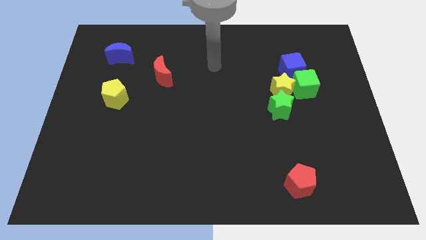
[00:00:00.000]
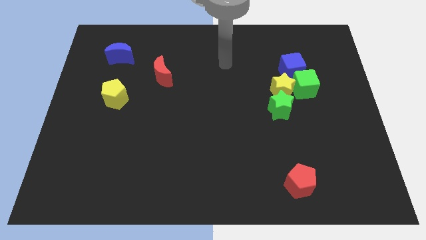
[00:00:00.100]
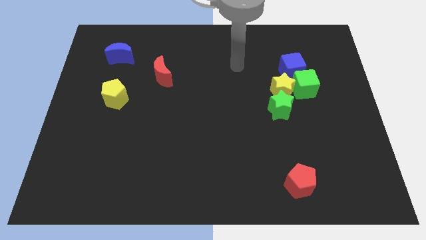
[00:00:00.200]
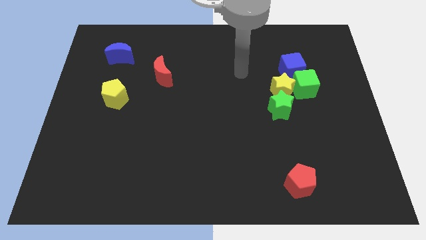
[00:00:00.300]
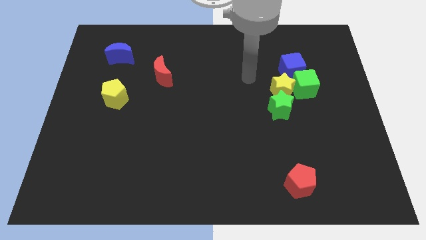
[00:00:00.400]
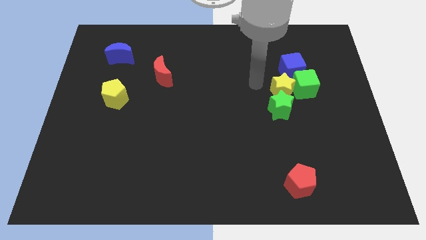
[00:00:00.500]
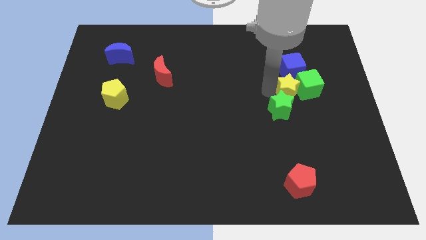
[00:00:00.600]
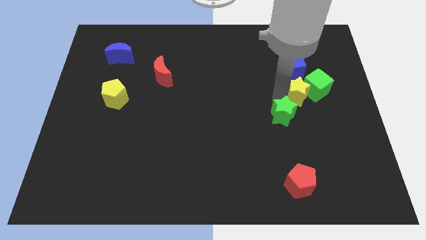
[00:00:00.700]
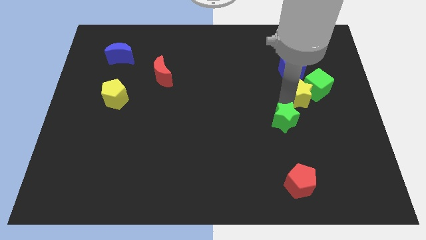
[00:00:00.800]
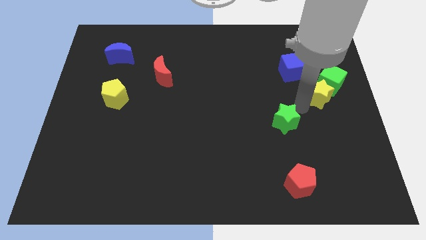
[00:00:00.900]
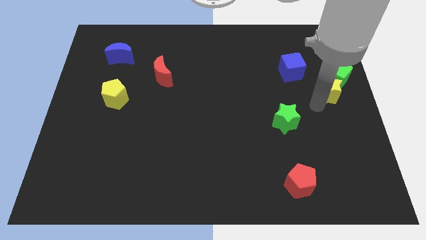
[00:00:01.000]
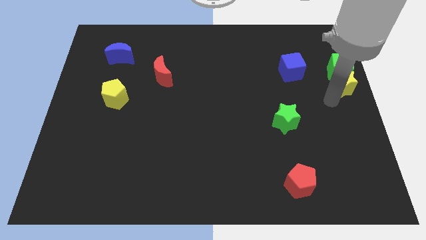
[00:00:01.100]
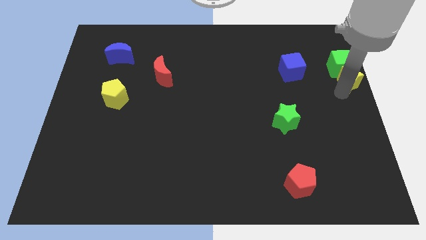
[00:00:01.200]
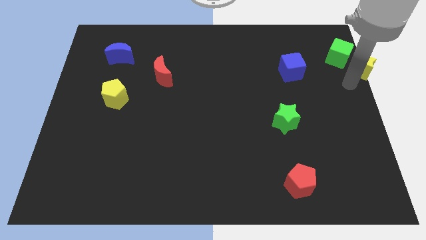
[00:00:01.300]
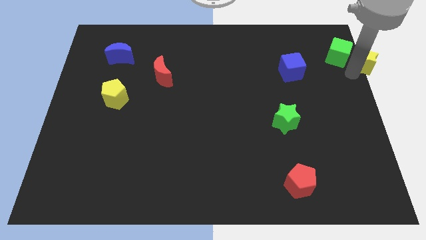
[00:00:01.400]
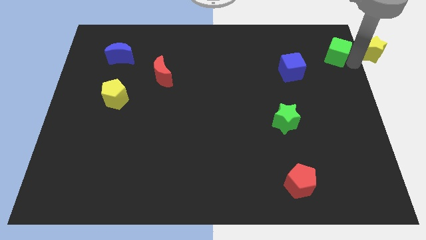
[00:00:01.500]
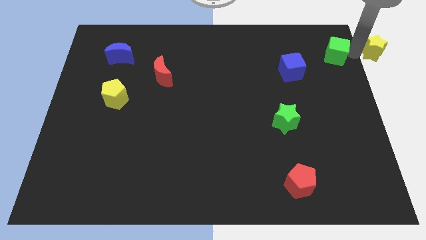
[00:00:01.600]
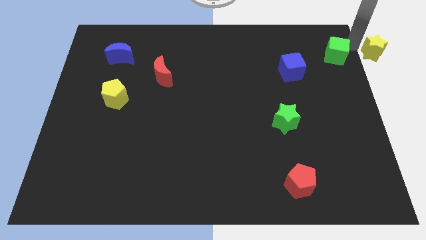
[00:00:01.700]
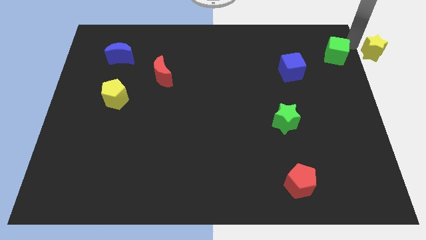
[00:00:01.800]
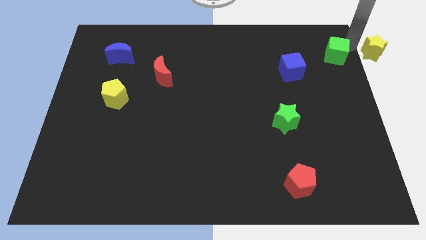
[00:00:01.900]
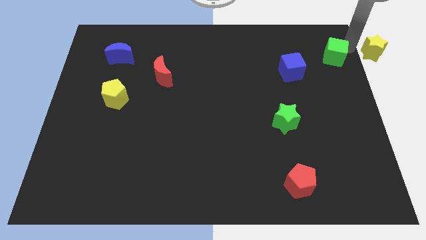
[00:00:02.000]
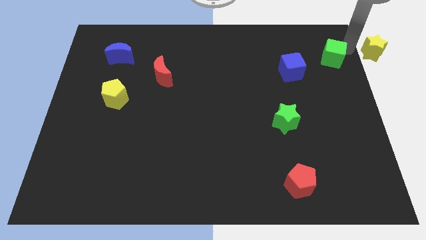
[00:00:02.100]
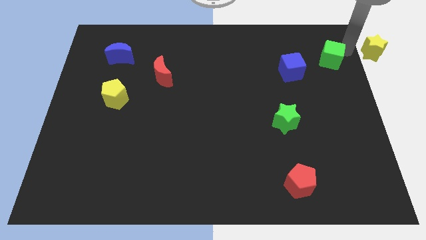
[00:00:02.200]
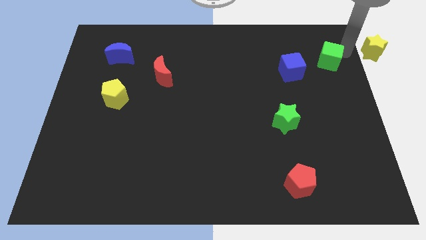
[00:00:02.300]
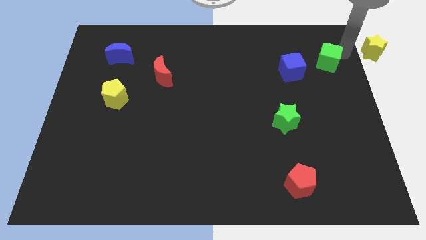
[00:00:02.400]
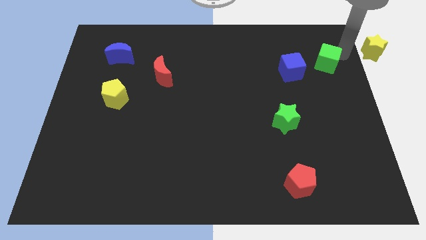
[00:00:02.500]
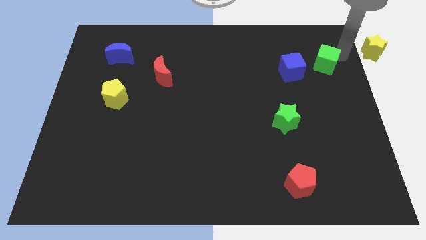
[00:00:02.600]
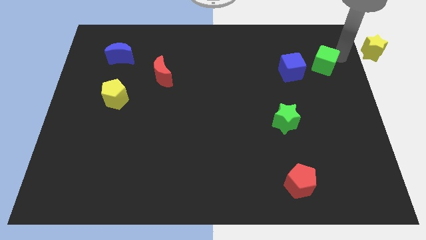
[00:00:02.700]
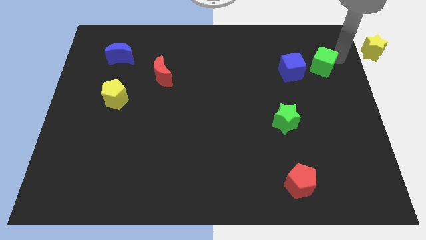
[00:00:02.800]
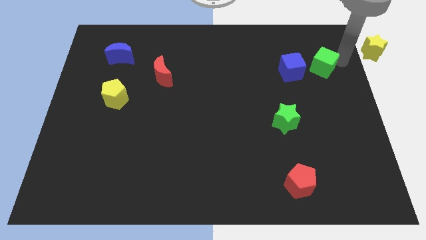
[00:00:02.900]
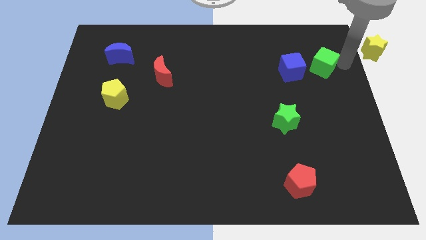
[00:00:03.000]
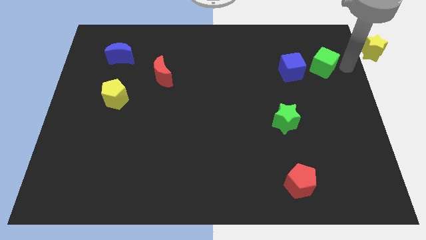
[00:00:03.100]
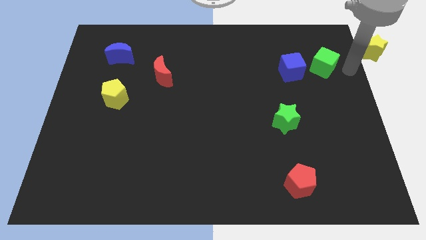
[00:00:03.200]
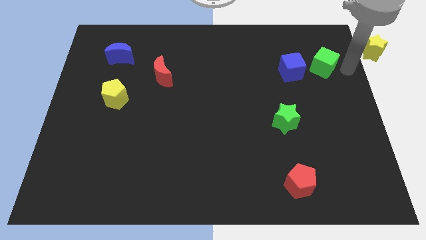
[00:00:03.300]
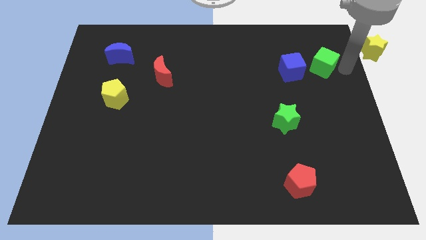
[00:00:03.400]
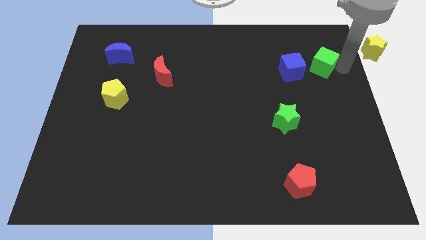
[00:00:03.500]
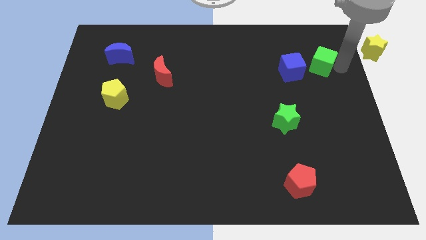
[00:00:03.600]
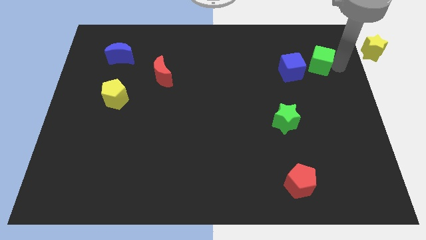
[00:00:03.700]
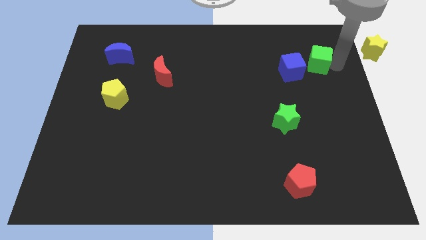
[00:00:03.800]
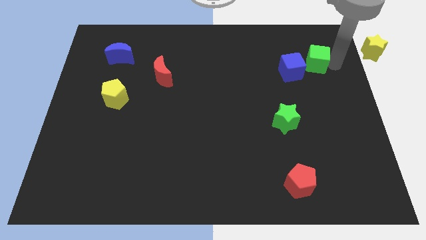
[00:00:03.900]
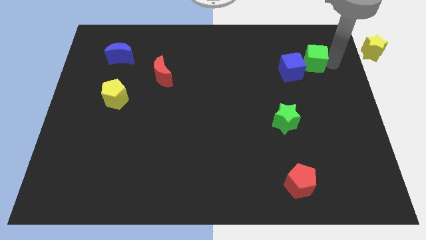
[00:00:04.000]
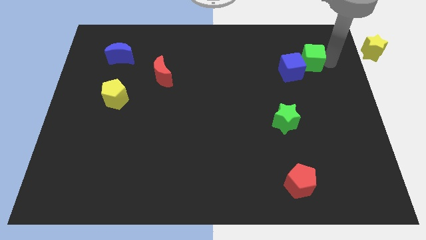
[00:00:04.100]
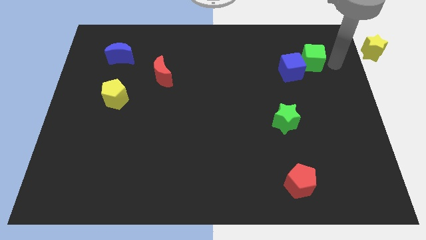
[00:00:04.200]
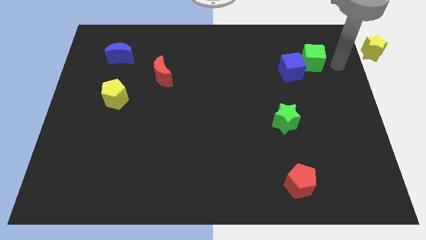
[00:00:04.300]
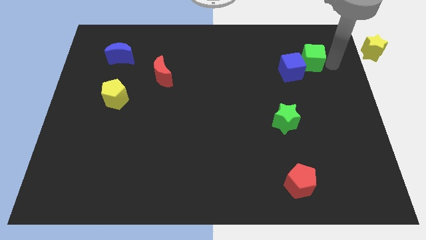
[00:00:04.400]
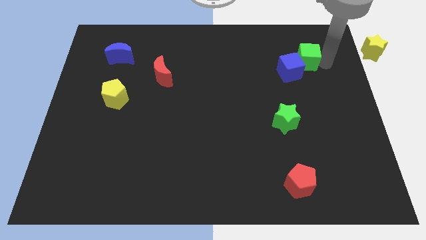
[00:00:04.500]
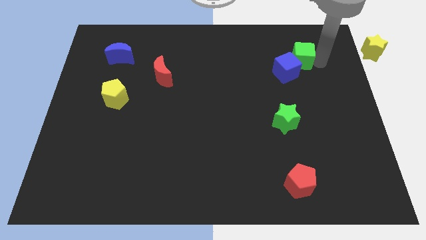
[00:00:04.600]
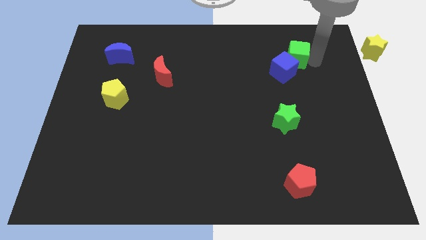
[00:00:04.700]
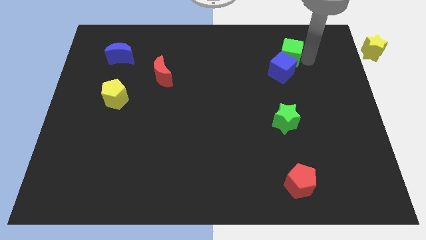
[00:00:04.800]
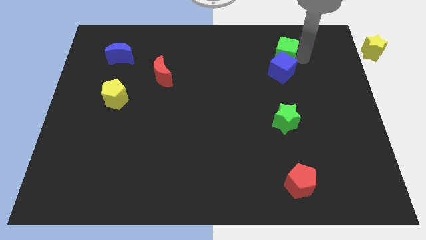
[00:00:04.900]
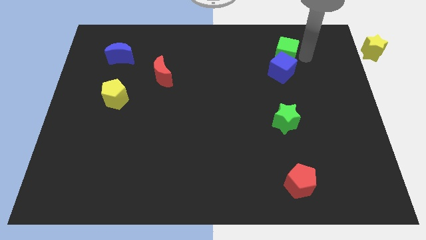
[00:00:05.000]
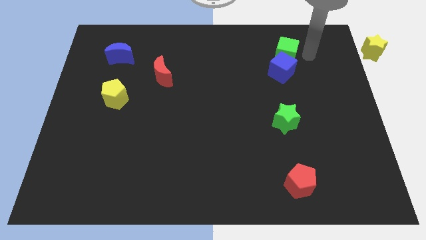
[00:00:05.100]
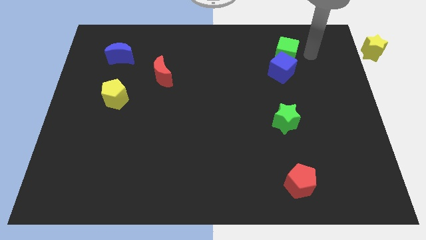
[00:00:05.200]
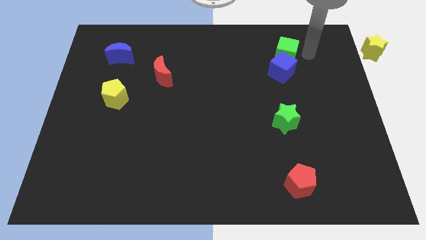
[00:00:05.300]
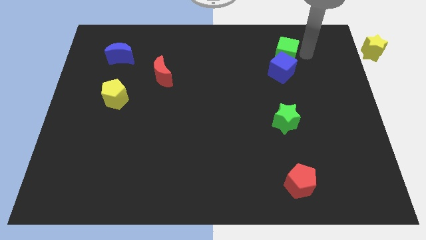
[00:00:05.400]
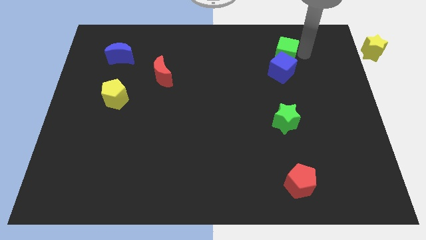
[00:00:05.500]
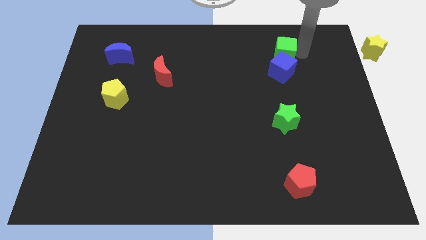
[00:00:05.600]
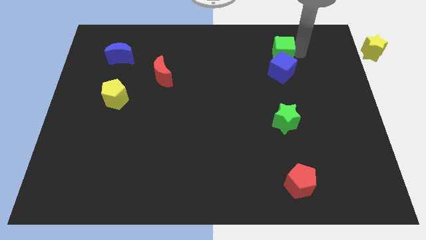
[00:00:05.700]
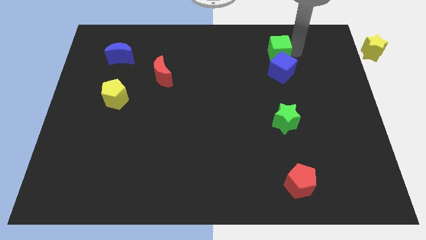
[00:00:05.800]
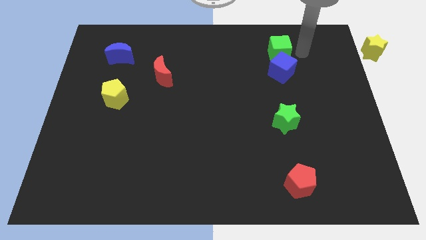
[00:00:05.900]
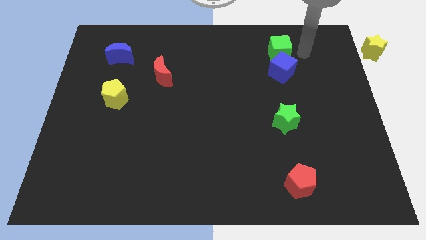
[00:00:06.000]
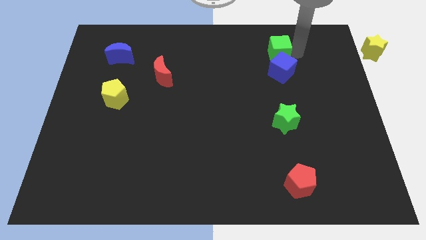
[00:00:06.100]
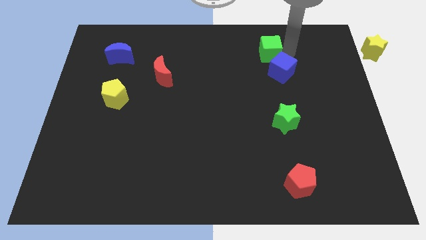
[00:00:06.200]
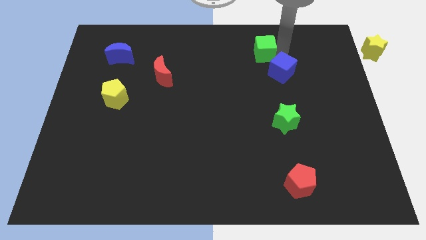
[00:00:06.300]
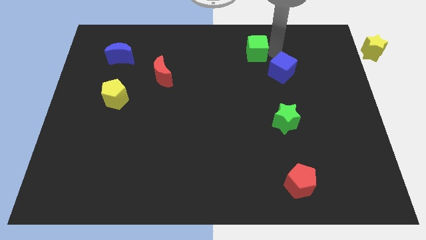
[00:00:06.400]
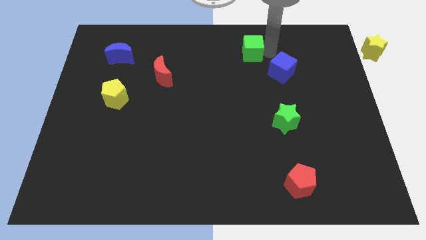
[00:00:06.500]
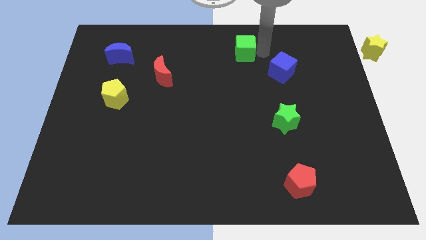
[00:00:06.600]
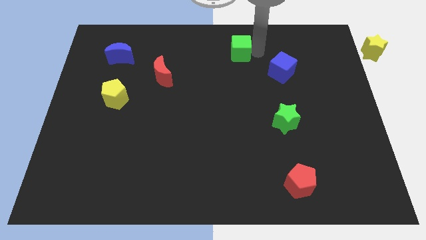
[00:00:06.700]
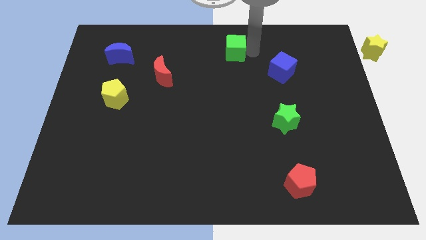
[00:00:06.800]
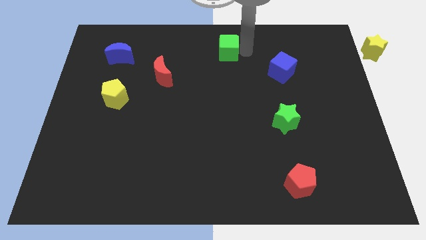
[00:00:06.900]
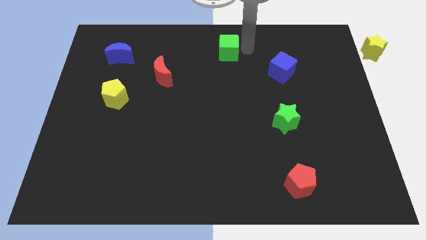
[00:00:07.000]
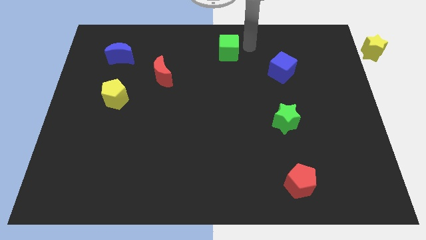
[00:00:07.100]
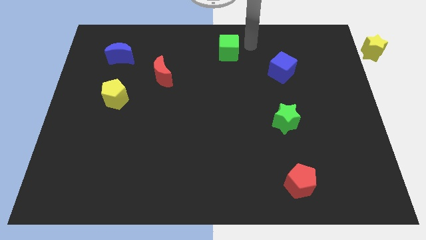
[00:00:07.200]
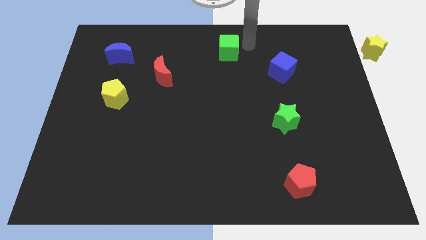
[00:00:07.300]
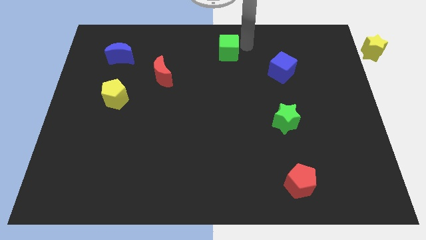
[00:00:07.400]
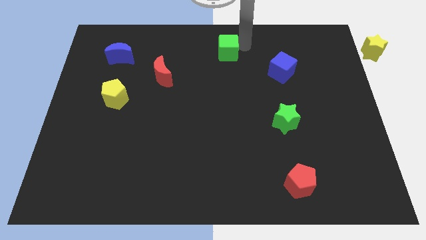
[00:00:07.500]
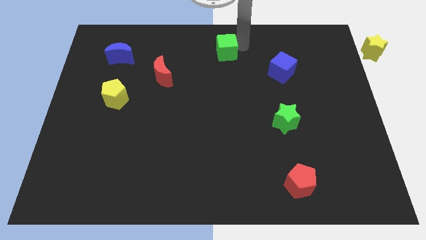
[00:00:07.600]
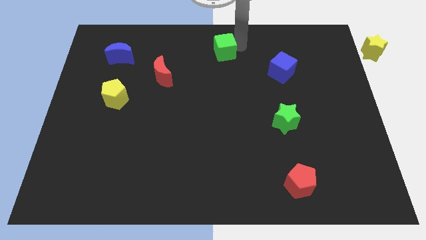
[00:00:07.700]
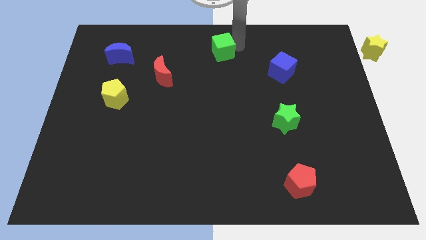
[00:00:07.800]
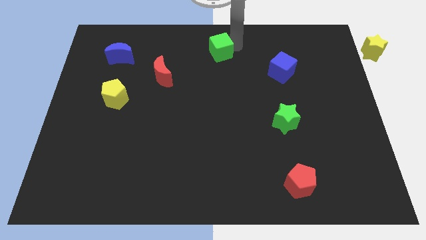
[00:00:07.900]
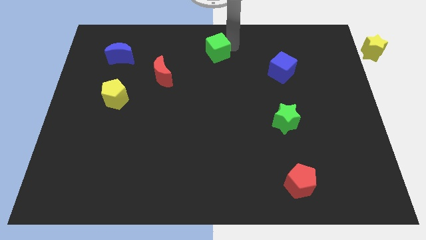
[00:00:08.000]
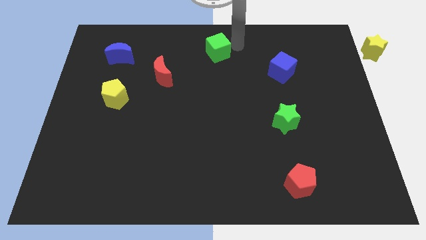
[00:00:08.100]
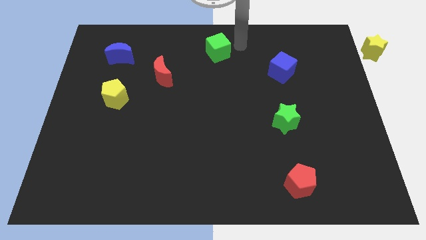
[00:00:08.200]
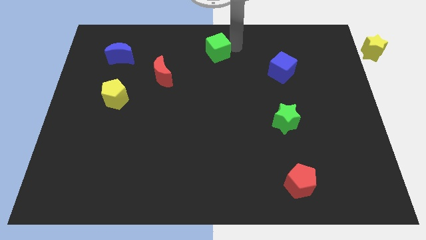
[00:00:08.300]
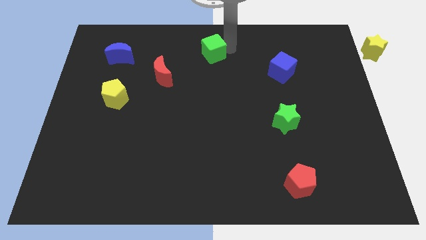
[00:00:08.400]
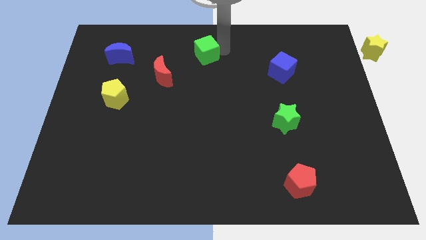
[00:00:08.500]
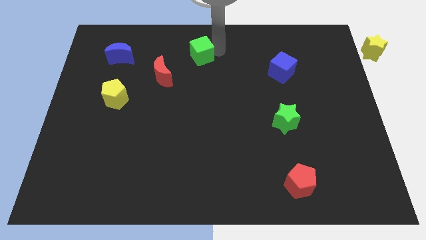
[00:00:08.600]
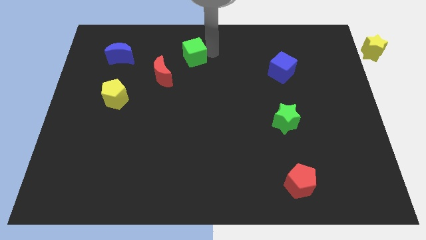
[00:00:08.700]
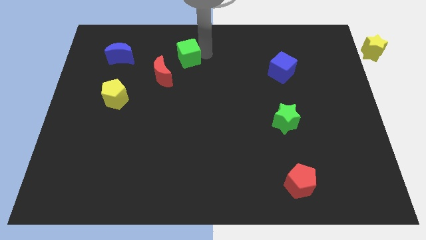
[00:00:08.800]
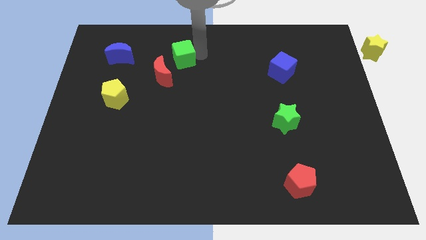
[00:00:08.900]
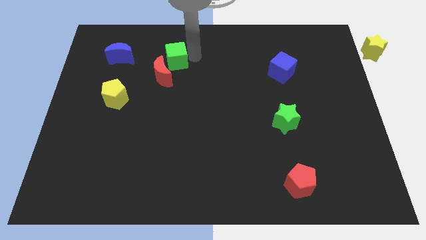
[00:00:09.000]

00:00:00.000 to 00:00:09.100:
push the green cube to the right side of the blue moon
